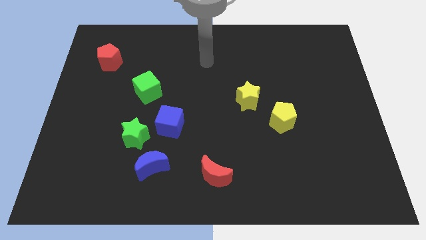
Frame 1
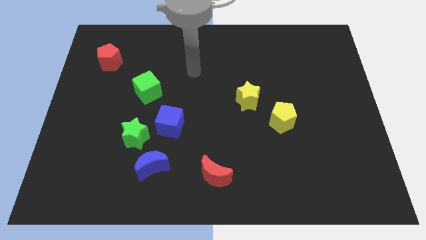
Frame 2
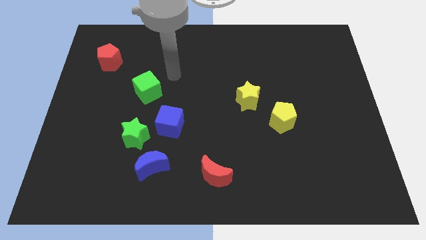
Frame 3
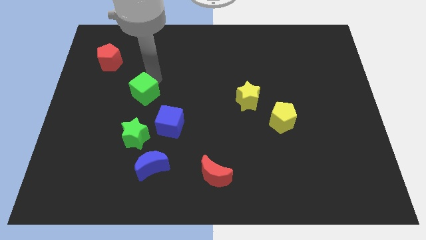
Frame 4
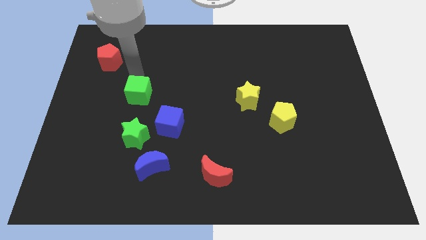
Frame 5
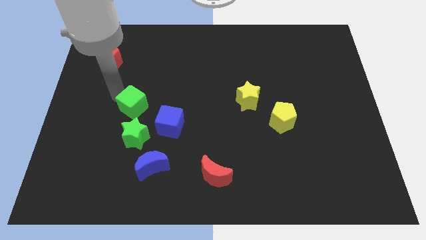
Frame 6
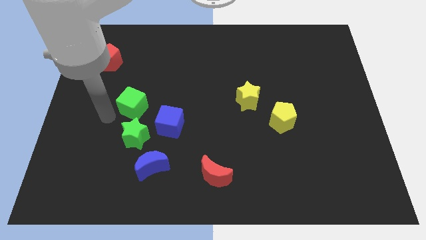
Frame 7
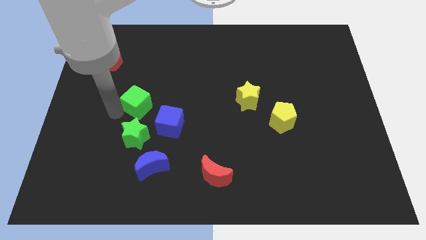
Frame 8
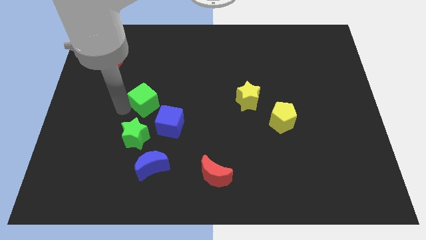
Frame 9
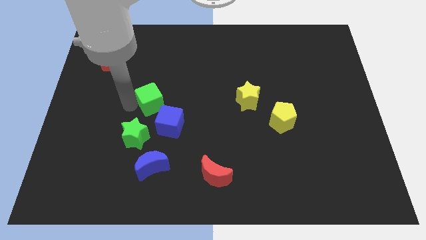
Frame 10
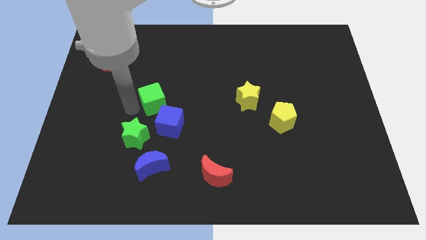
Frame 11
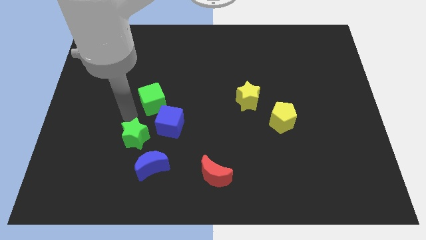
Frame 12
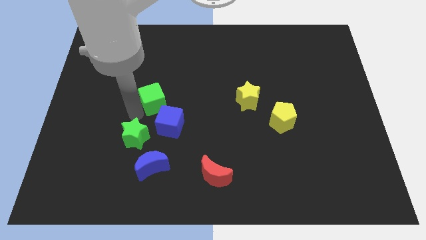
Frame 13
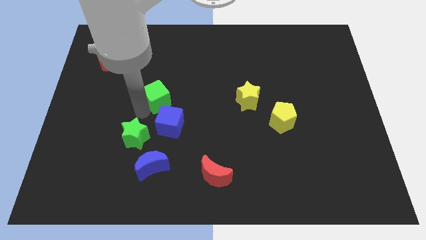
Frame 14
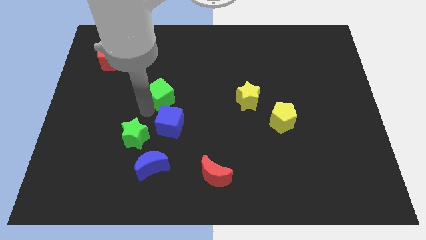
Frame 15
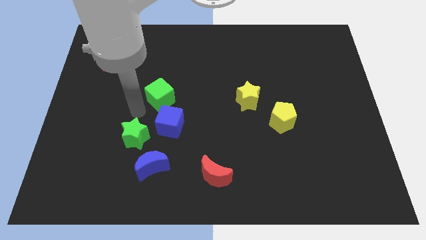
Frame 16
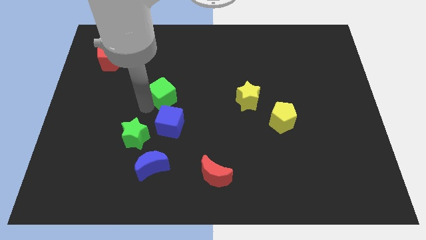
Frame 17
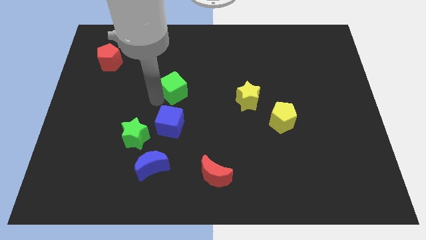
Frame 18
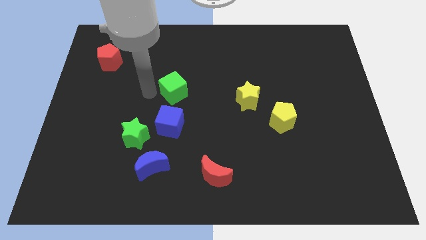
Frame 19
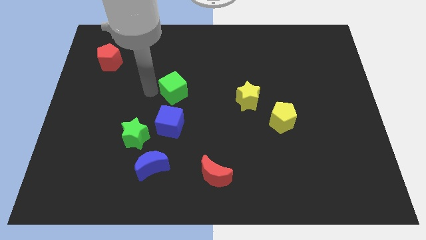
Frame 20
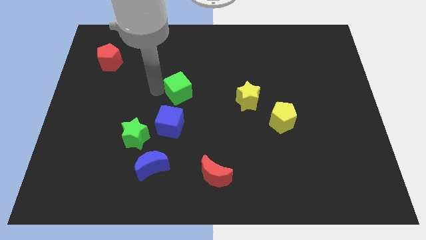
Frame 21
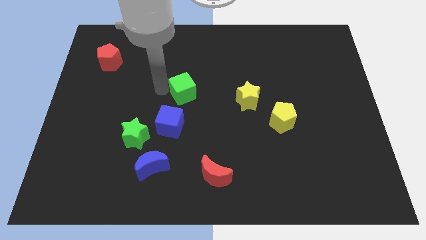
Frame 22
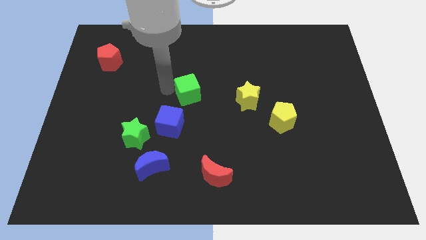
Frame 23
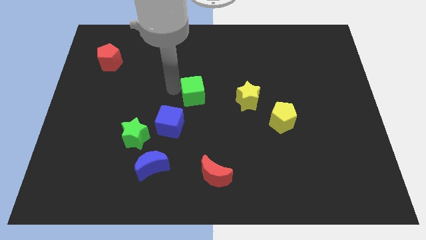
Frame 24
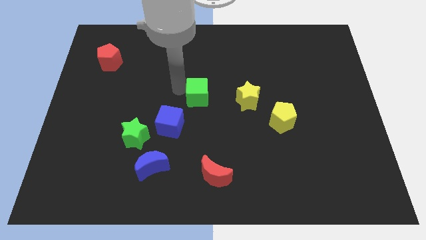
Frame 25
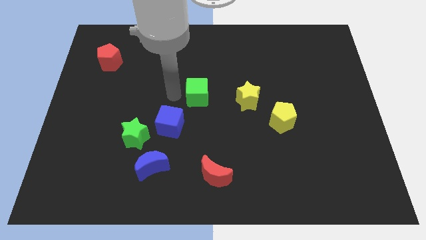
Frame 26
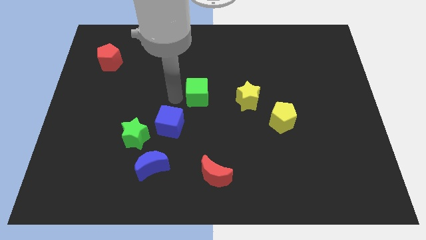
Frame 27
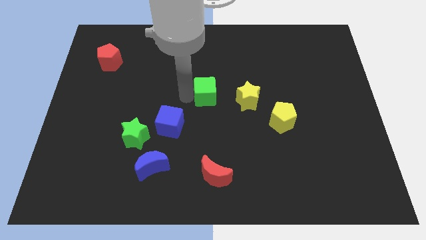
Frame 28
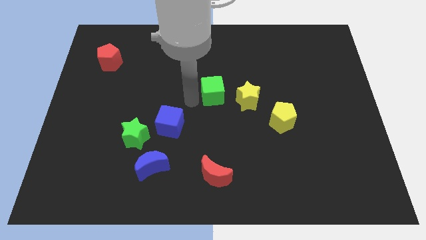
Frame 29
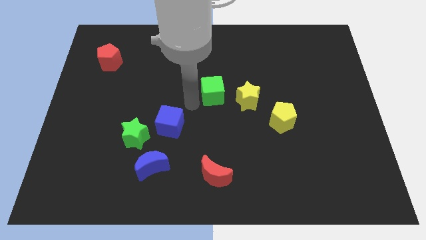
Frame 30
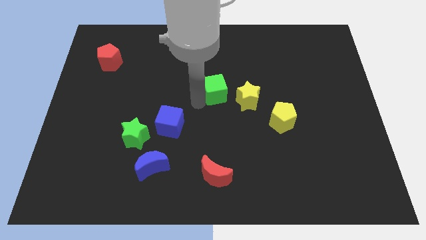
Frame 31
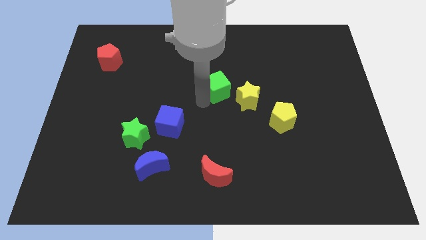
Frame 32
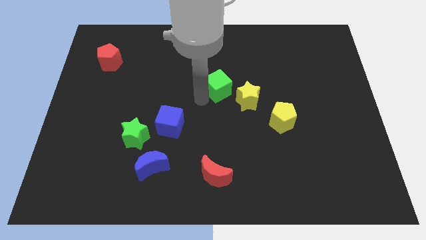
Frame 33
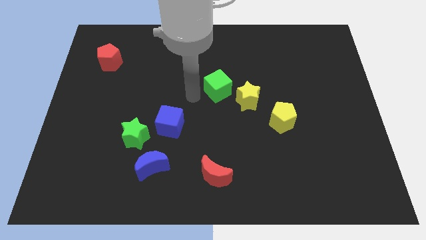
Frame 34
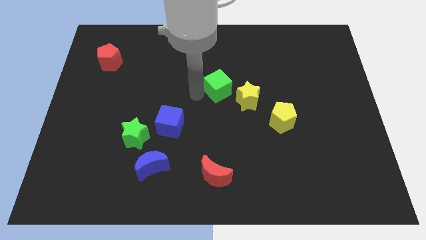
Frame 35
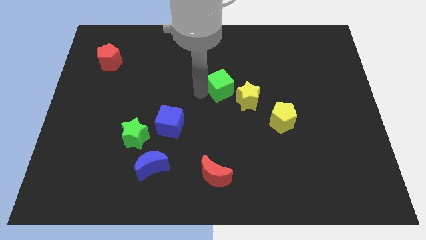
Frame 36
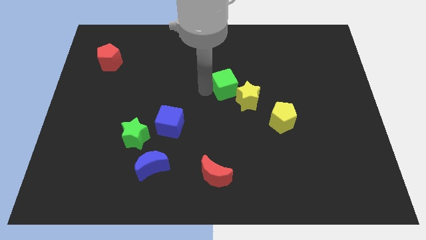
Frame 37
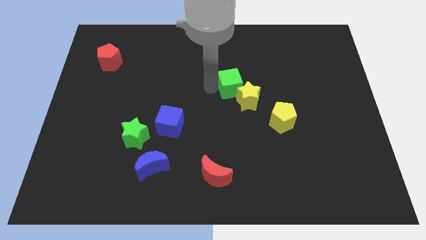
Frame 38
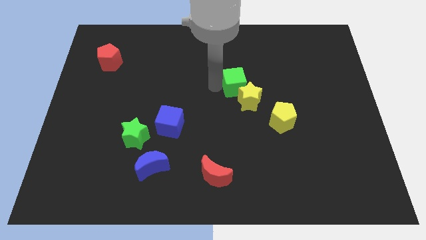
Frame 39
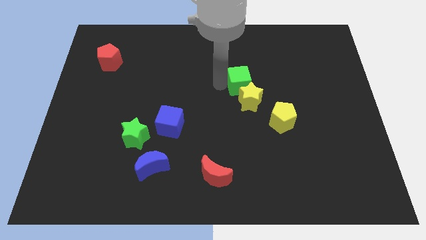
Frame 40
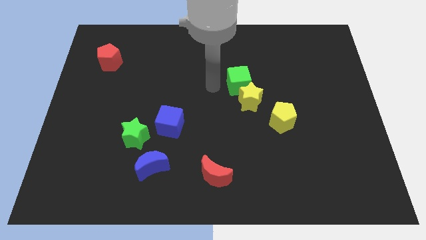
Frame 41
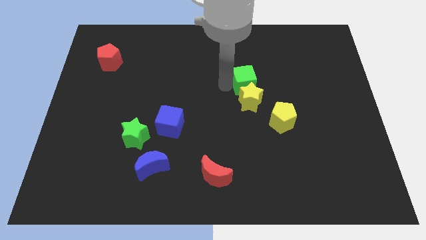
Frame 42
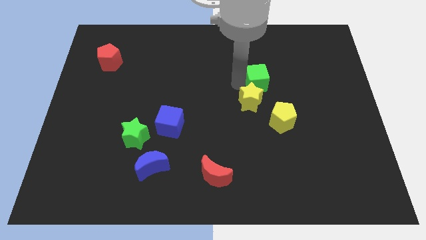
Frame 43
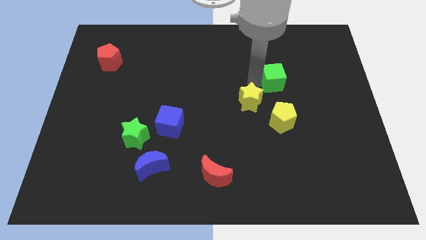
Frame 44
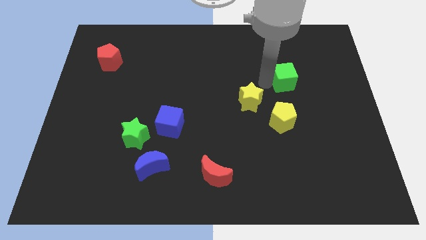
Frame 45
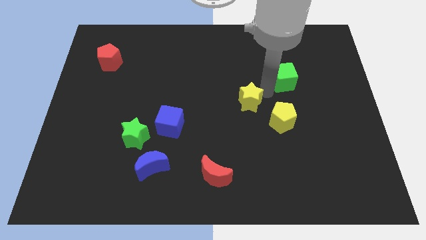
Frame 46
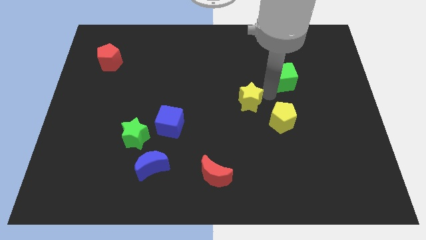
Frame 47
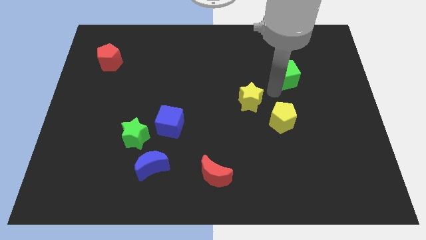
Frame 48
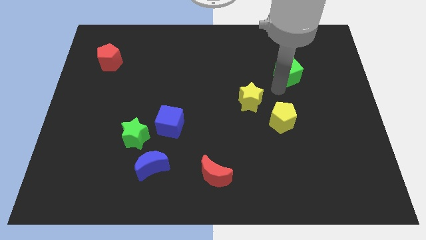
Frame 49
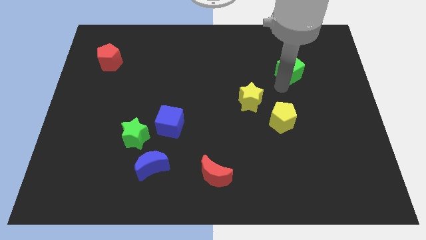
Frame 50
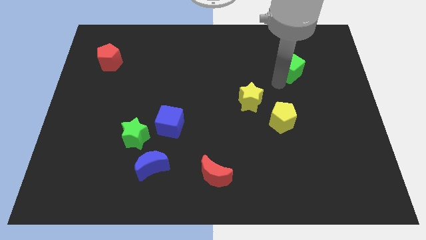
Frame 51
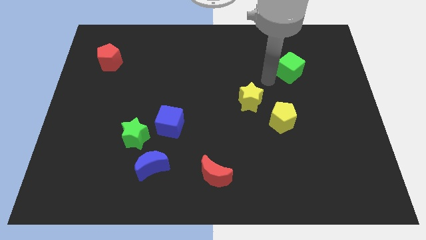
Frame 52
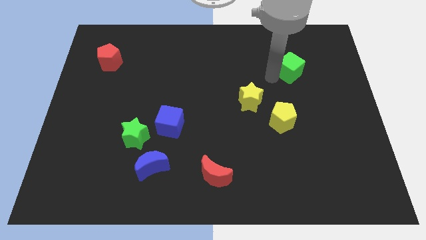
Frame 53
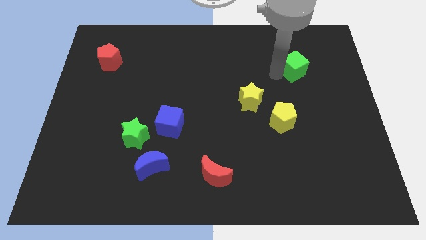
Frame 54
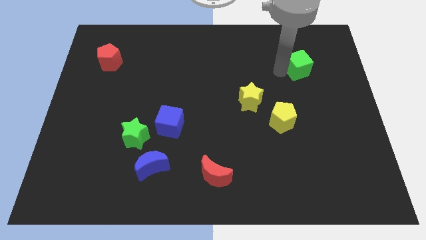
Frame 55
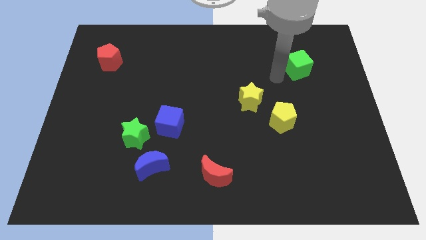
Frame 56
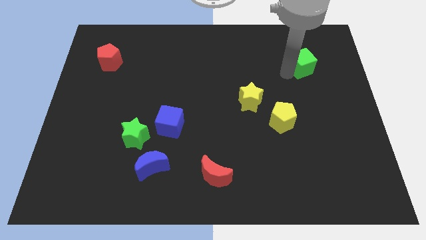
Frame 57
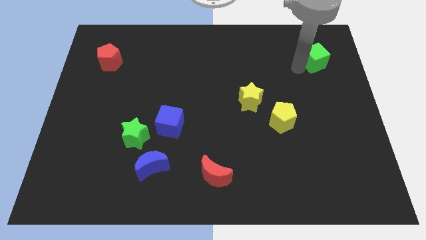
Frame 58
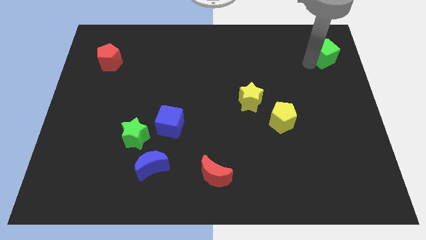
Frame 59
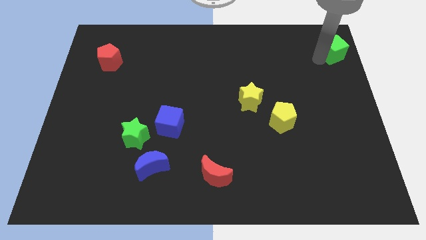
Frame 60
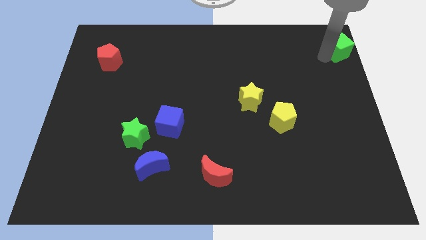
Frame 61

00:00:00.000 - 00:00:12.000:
push the green cube to the top right
